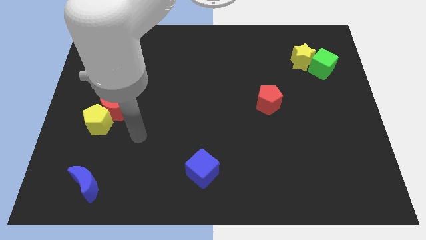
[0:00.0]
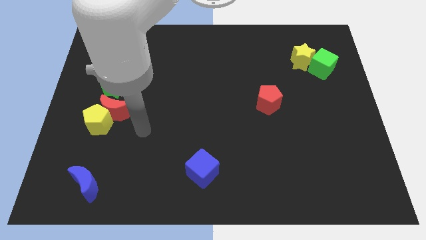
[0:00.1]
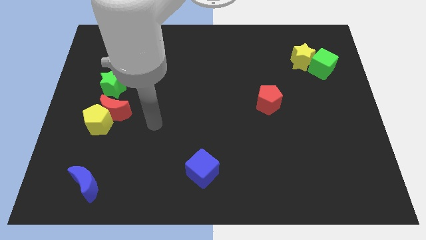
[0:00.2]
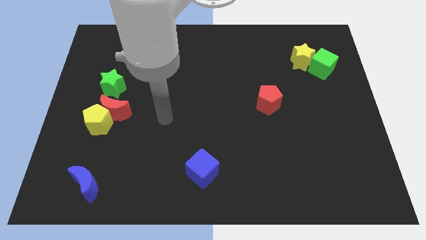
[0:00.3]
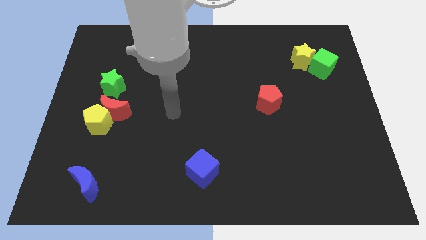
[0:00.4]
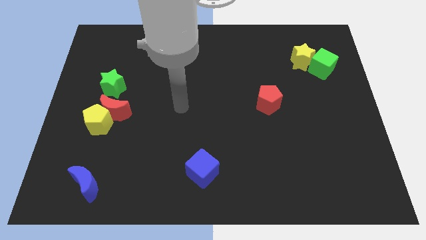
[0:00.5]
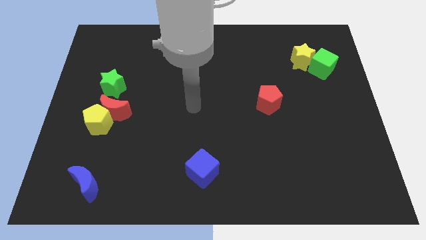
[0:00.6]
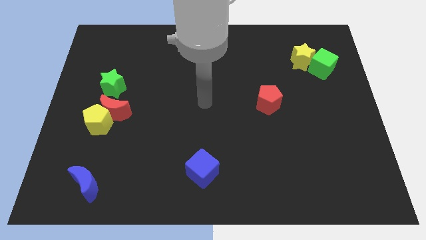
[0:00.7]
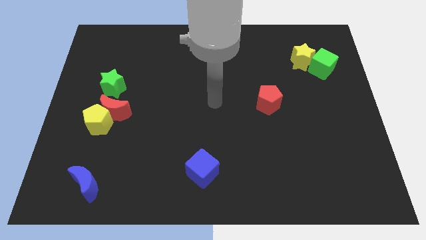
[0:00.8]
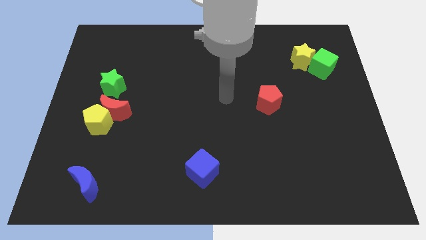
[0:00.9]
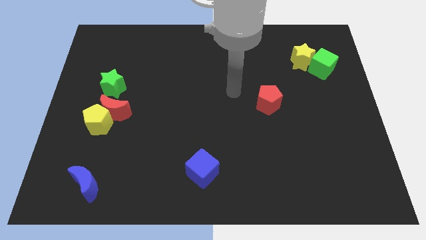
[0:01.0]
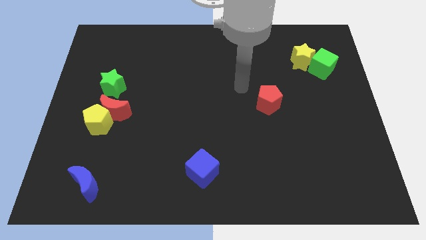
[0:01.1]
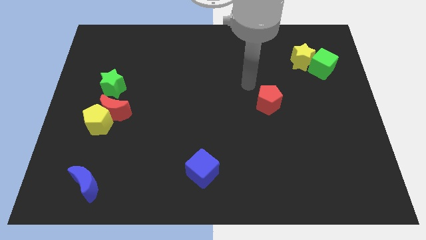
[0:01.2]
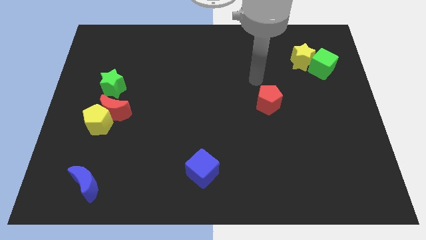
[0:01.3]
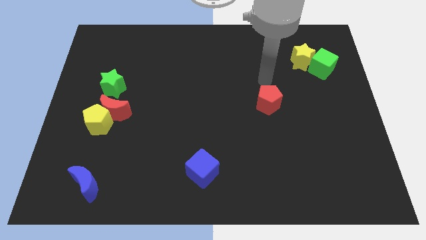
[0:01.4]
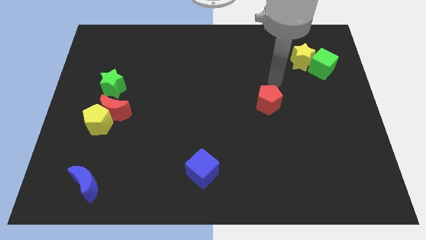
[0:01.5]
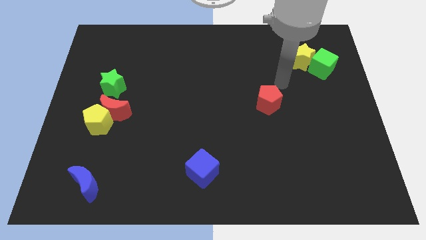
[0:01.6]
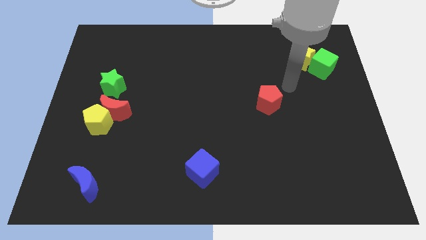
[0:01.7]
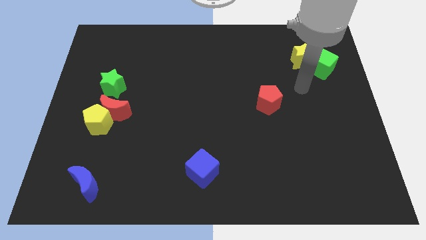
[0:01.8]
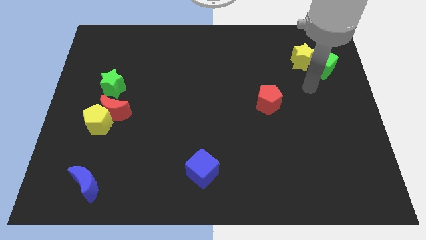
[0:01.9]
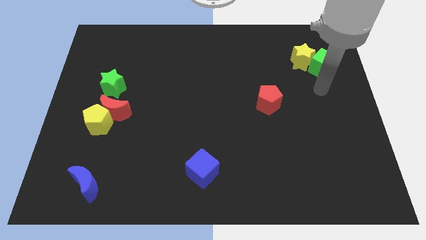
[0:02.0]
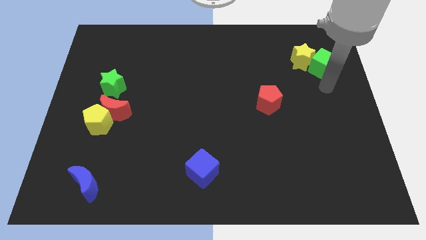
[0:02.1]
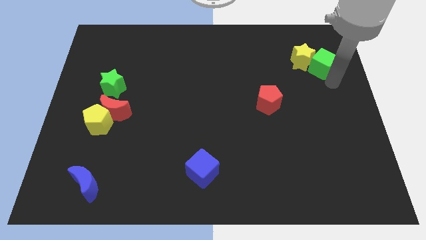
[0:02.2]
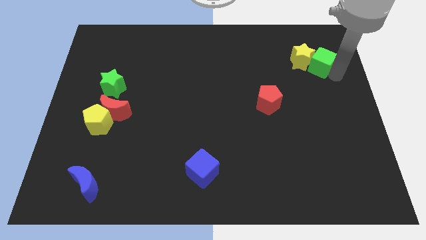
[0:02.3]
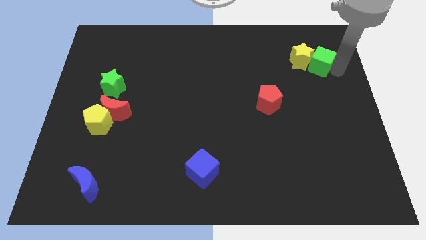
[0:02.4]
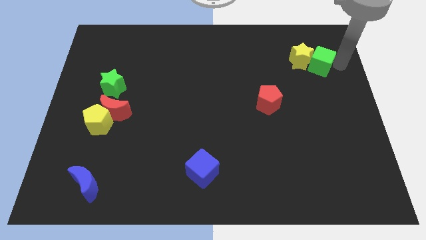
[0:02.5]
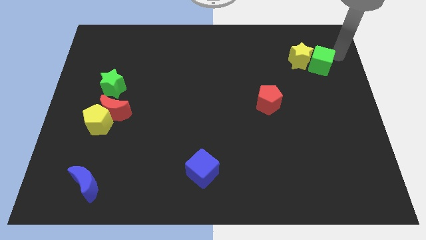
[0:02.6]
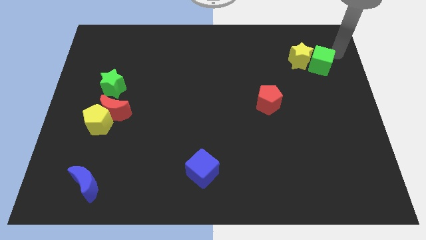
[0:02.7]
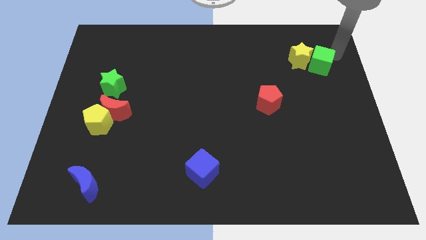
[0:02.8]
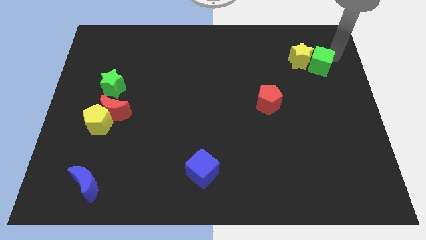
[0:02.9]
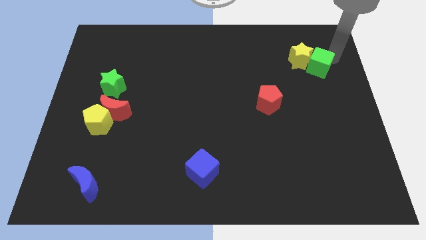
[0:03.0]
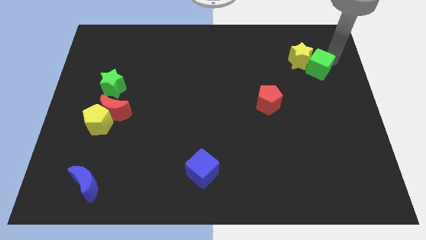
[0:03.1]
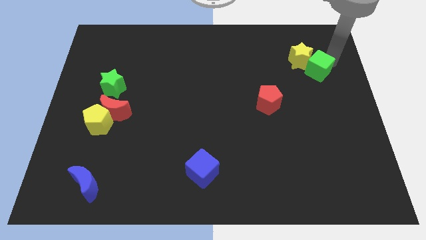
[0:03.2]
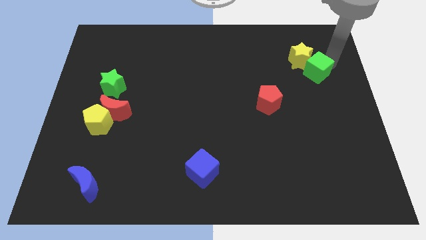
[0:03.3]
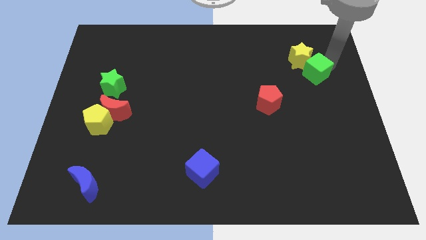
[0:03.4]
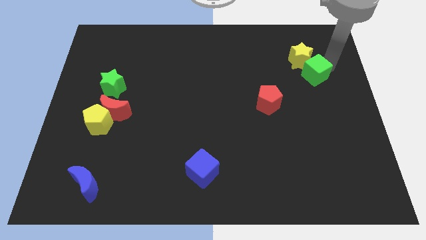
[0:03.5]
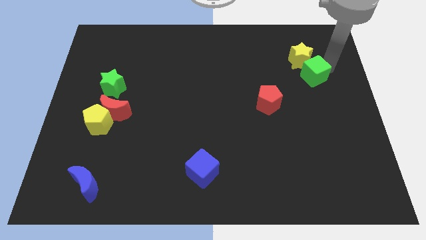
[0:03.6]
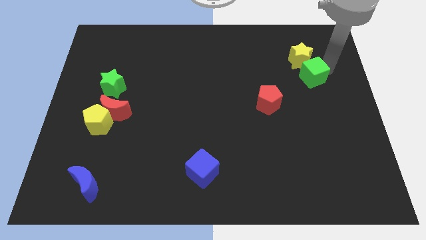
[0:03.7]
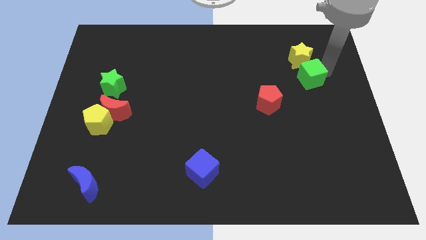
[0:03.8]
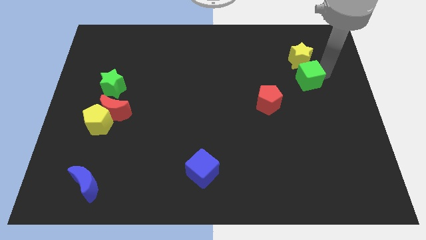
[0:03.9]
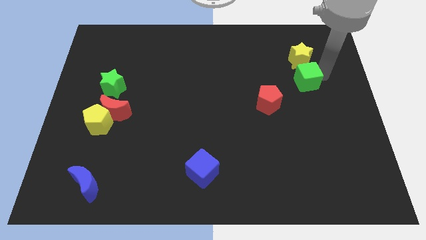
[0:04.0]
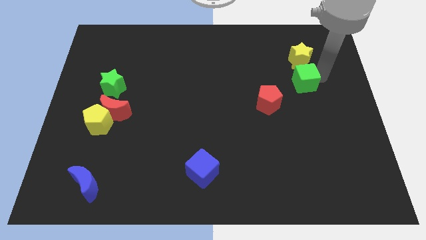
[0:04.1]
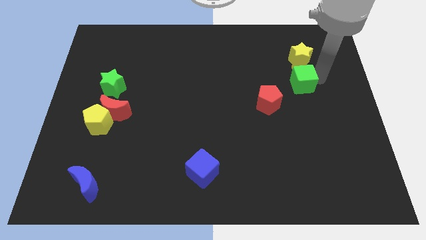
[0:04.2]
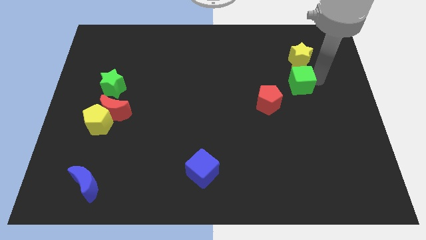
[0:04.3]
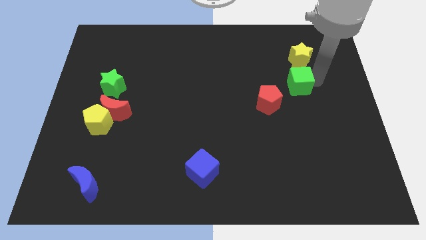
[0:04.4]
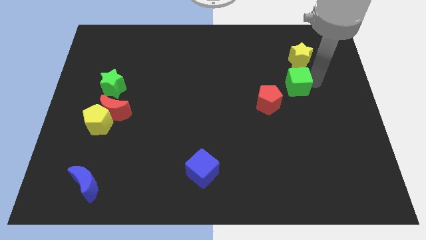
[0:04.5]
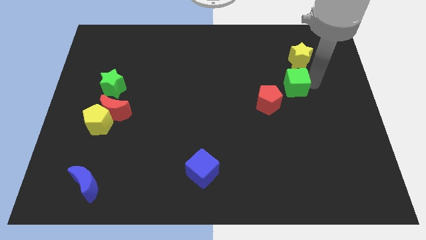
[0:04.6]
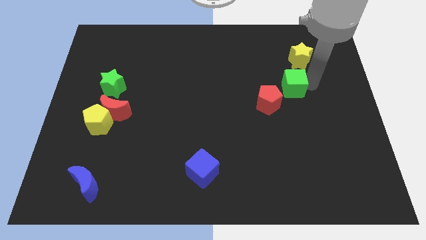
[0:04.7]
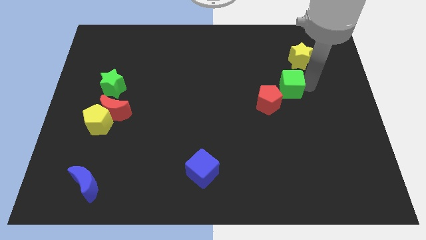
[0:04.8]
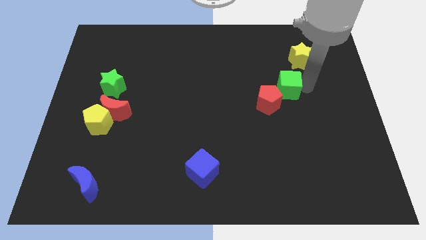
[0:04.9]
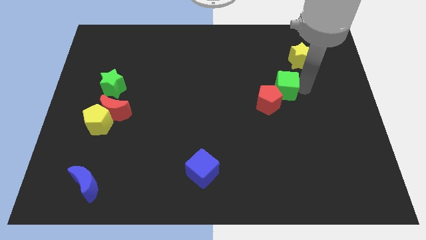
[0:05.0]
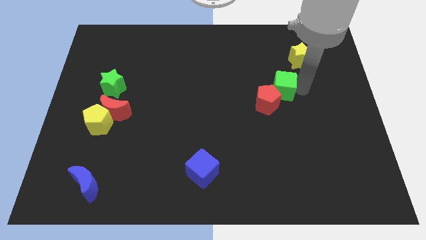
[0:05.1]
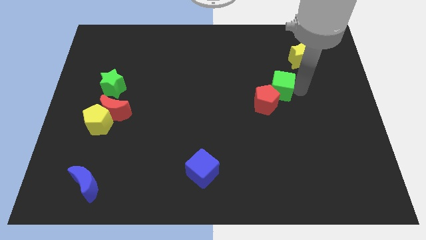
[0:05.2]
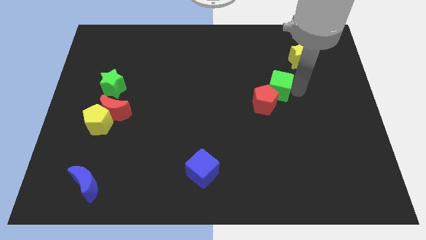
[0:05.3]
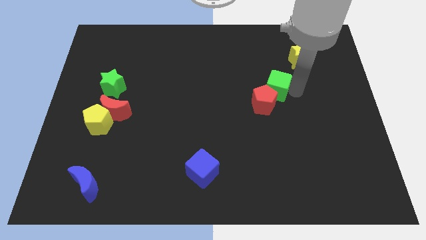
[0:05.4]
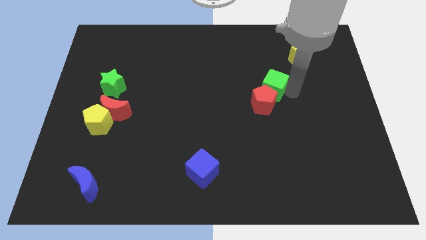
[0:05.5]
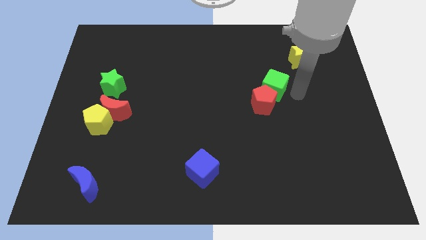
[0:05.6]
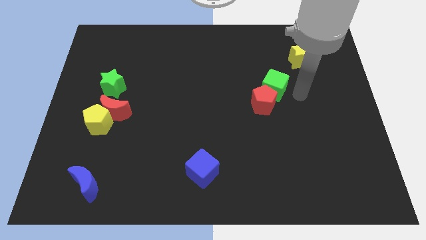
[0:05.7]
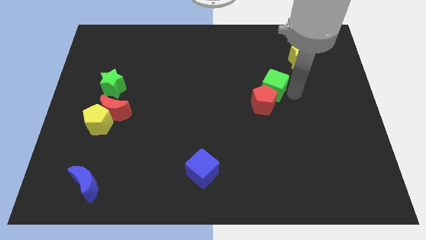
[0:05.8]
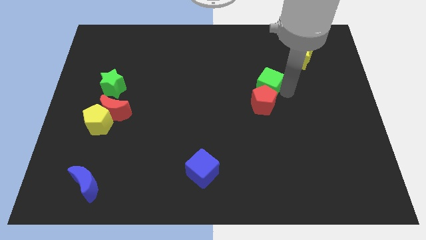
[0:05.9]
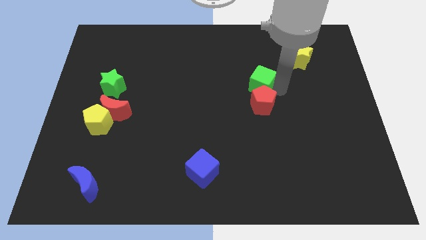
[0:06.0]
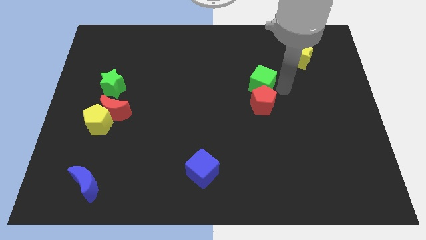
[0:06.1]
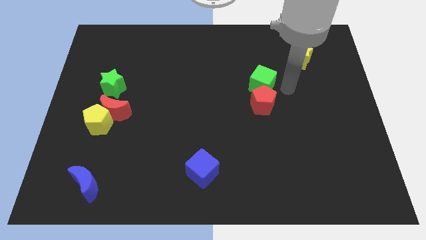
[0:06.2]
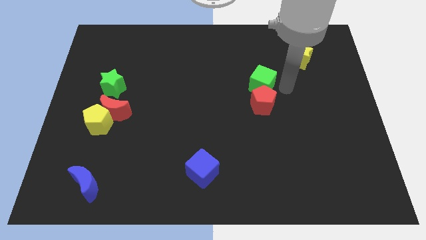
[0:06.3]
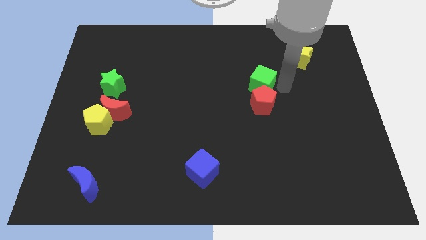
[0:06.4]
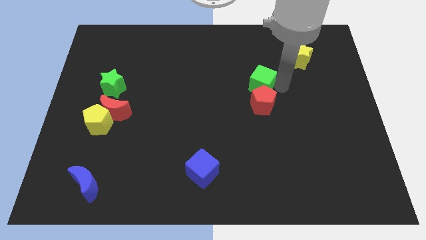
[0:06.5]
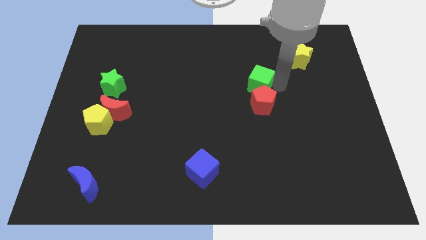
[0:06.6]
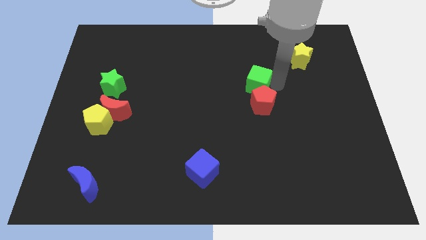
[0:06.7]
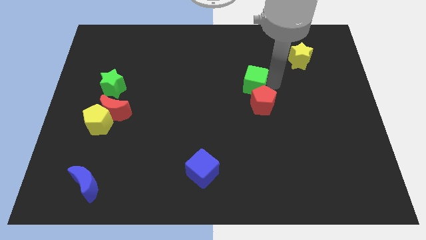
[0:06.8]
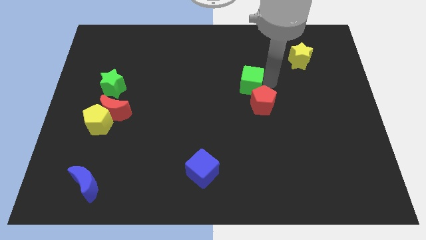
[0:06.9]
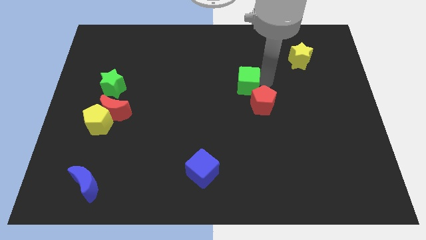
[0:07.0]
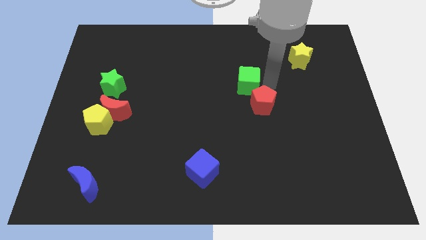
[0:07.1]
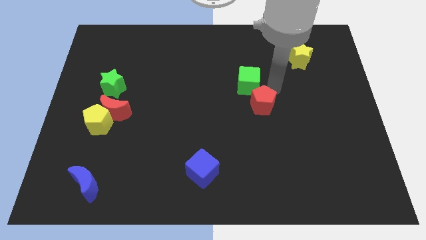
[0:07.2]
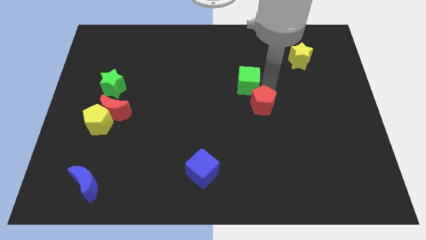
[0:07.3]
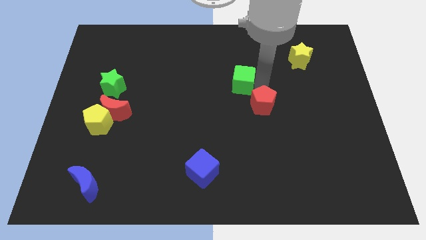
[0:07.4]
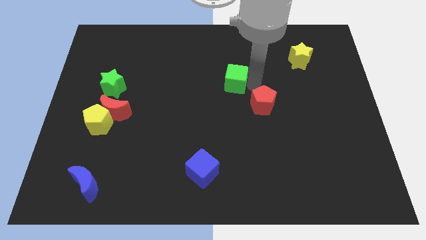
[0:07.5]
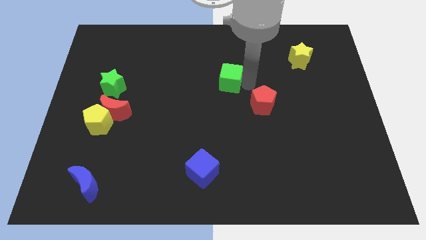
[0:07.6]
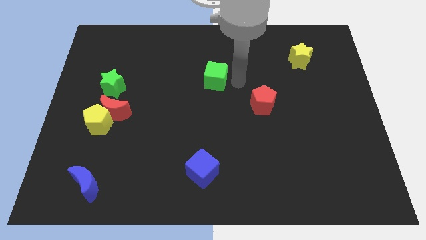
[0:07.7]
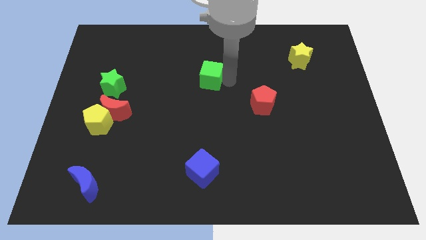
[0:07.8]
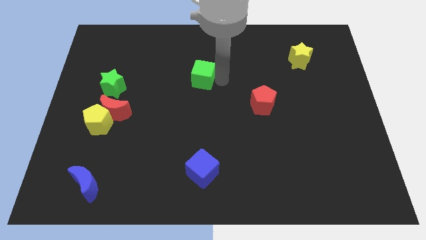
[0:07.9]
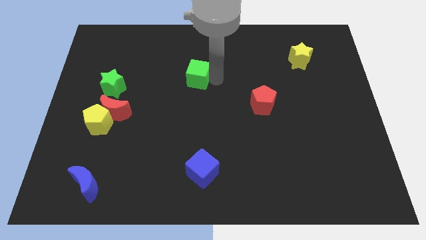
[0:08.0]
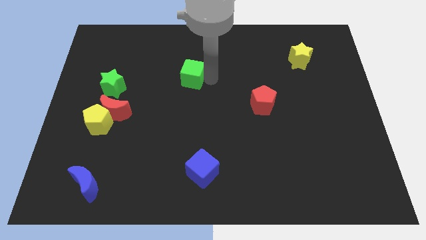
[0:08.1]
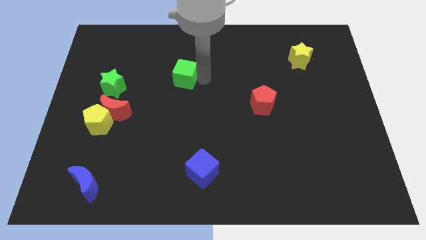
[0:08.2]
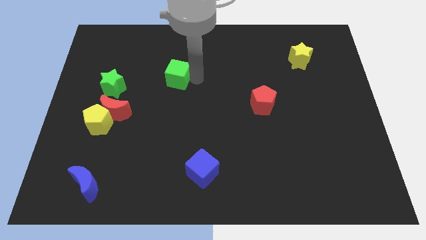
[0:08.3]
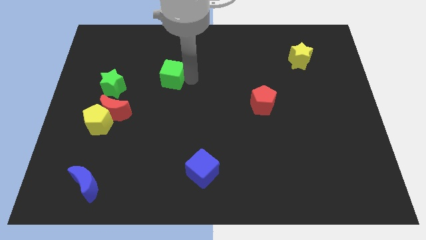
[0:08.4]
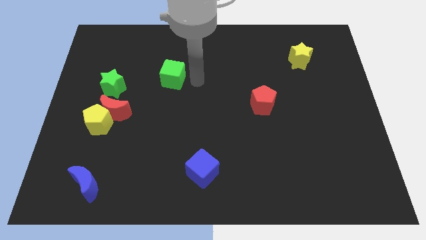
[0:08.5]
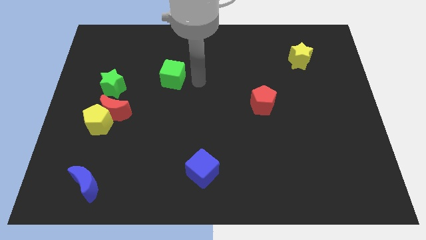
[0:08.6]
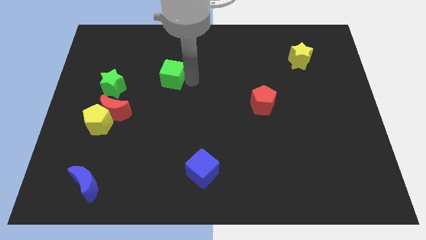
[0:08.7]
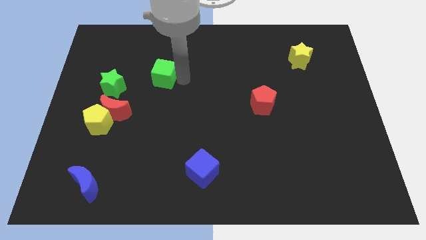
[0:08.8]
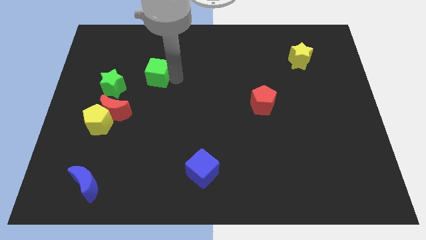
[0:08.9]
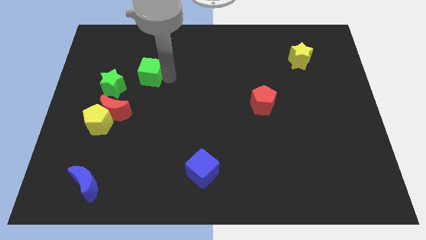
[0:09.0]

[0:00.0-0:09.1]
slide the green cube to the top right side of the green star
